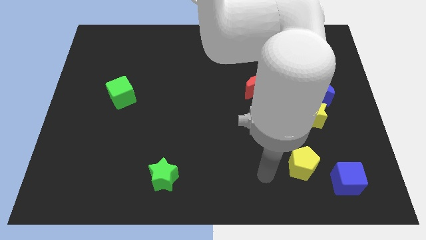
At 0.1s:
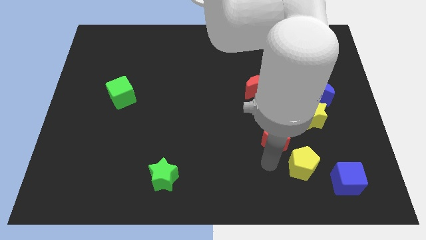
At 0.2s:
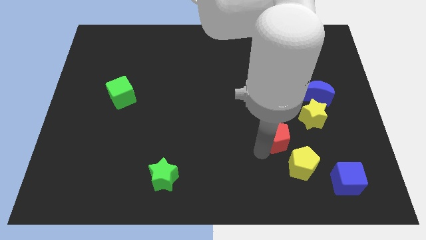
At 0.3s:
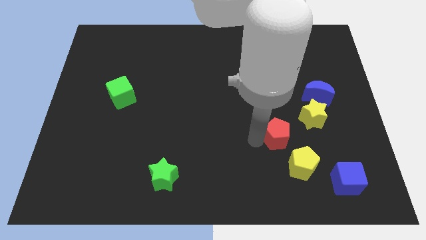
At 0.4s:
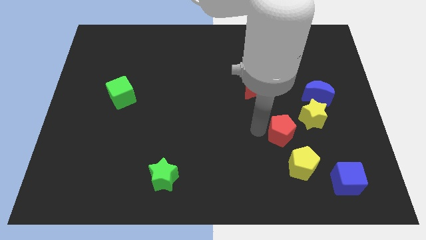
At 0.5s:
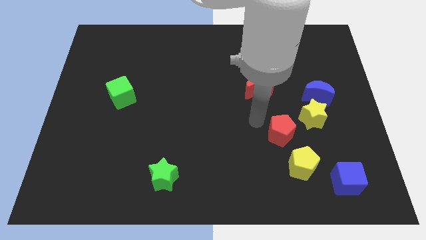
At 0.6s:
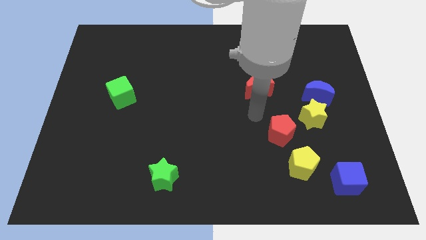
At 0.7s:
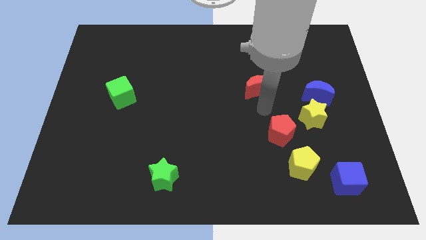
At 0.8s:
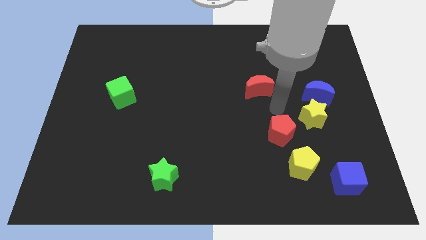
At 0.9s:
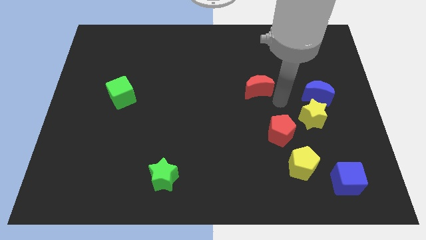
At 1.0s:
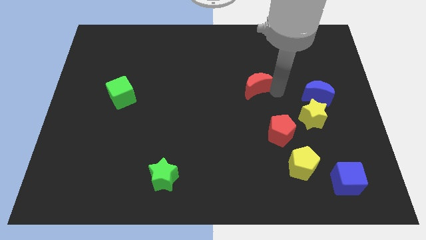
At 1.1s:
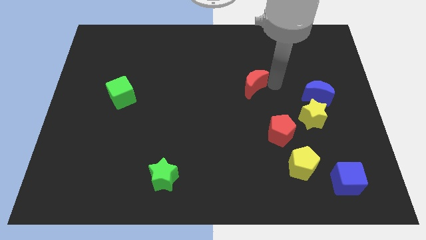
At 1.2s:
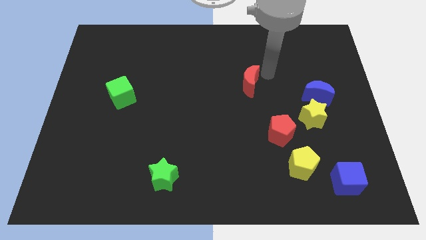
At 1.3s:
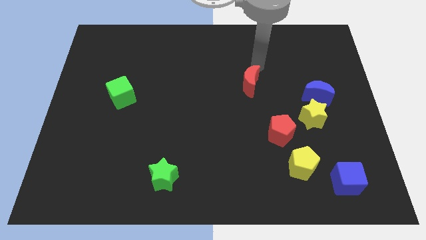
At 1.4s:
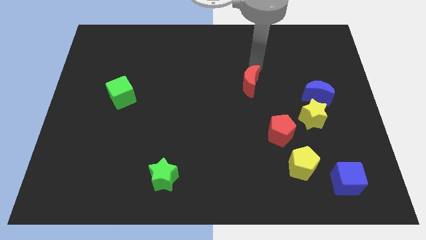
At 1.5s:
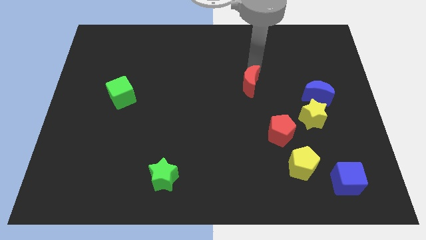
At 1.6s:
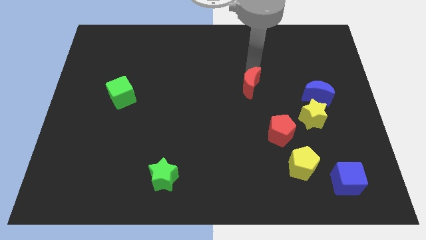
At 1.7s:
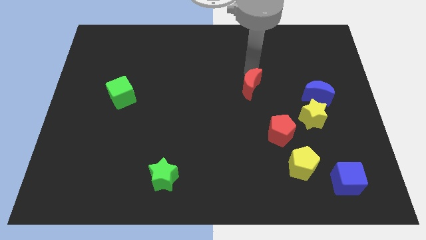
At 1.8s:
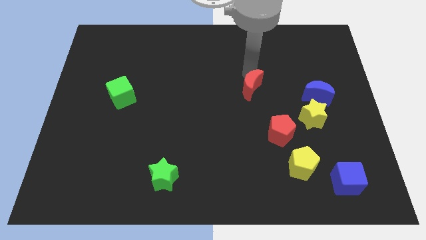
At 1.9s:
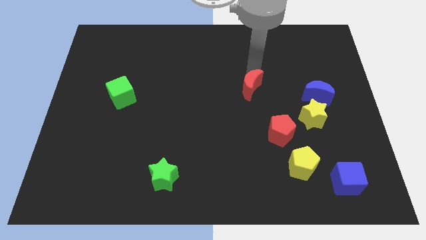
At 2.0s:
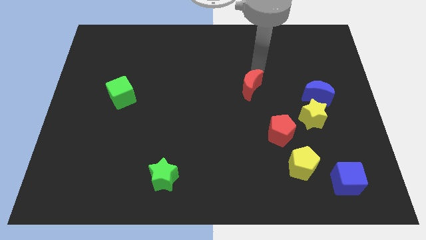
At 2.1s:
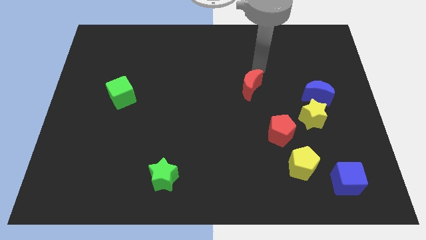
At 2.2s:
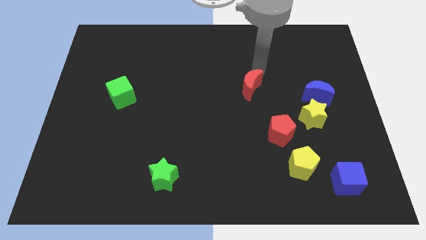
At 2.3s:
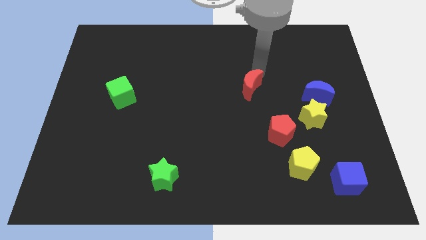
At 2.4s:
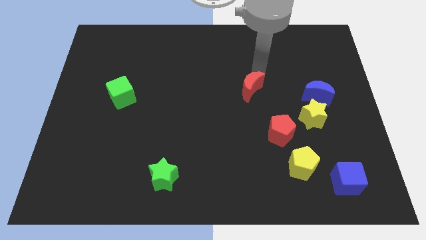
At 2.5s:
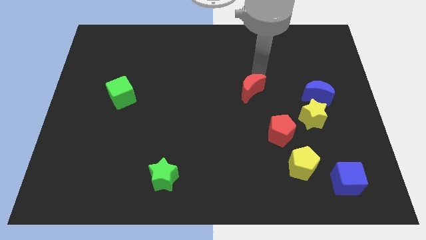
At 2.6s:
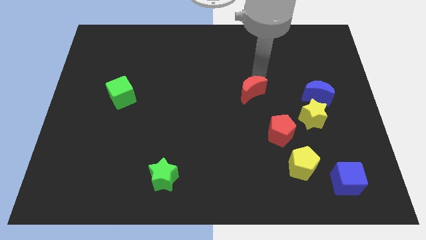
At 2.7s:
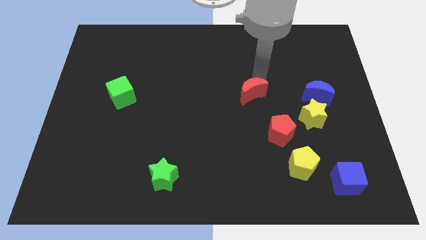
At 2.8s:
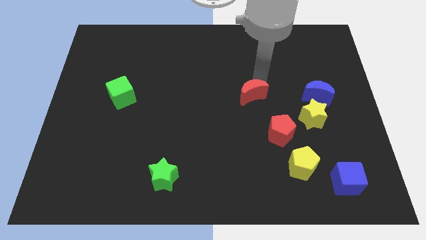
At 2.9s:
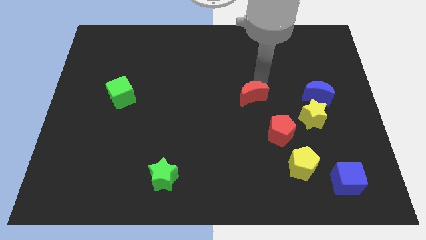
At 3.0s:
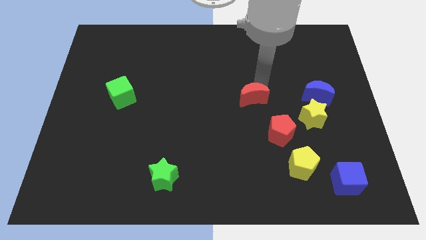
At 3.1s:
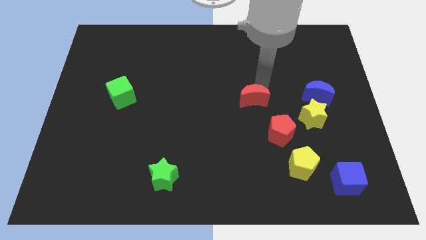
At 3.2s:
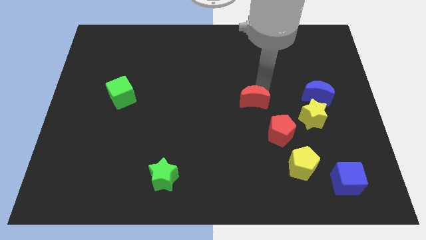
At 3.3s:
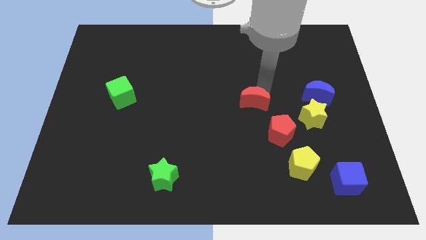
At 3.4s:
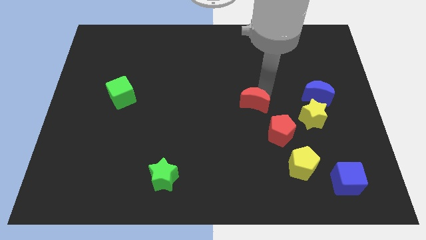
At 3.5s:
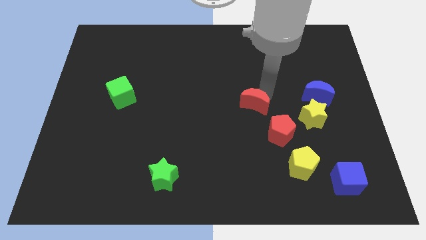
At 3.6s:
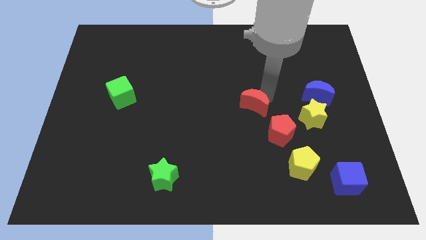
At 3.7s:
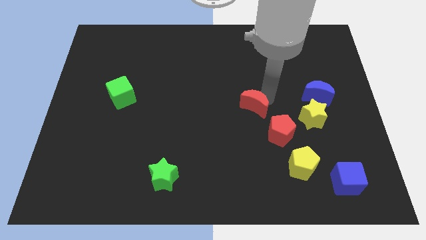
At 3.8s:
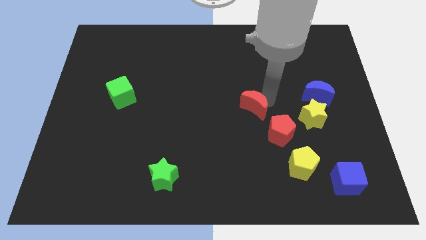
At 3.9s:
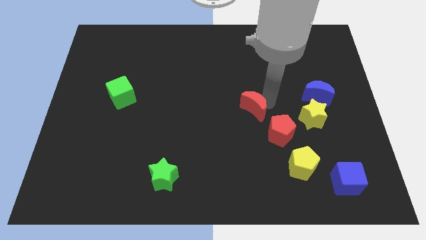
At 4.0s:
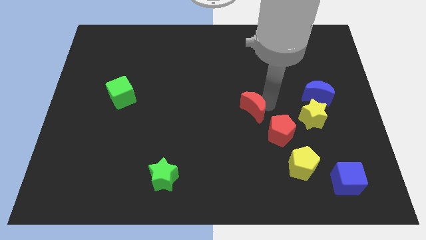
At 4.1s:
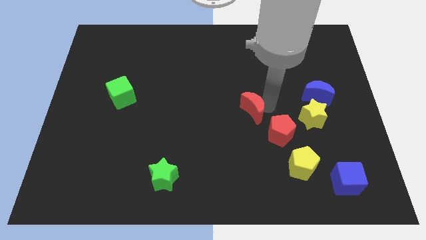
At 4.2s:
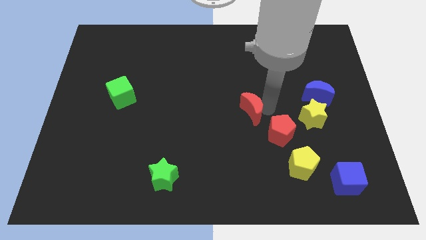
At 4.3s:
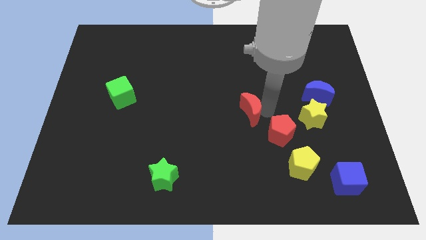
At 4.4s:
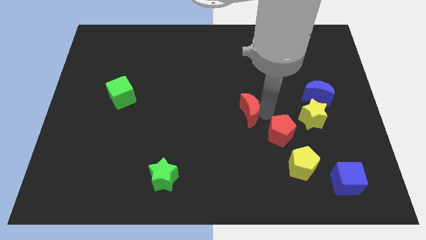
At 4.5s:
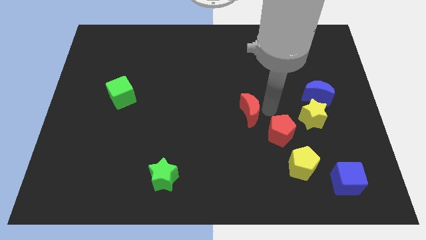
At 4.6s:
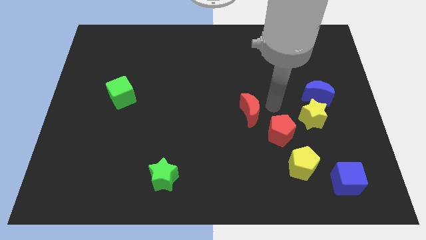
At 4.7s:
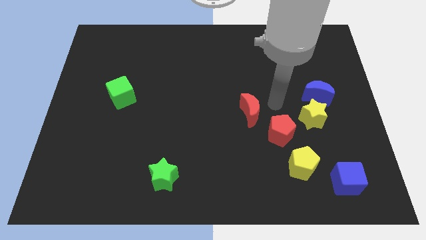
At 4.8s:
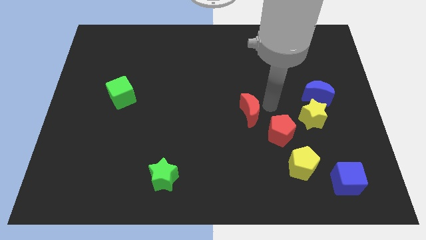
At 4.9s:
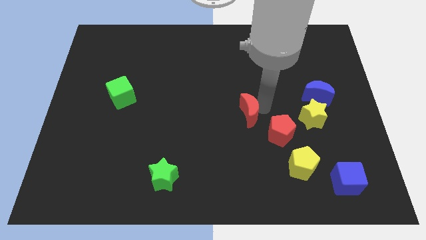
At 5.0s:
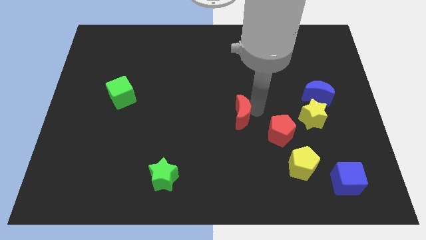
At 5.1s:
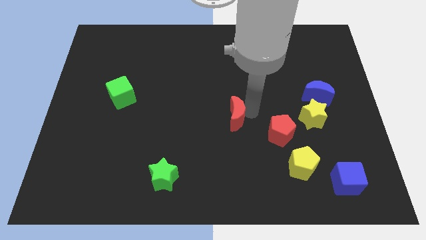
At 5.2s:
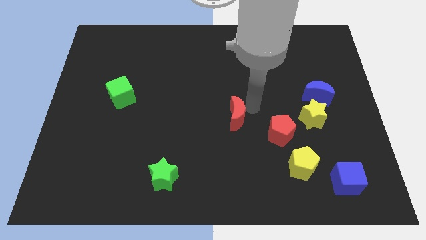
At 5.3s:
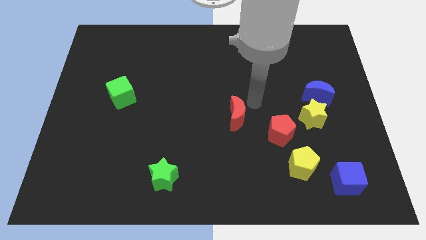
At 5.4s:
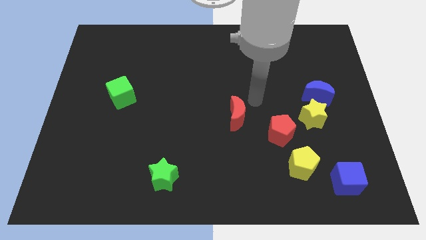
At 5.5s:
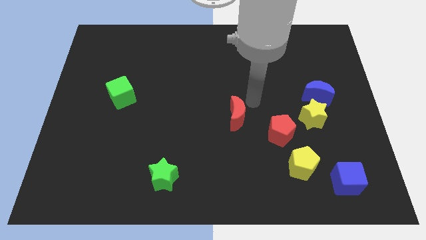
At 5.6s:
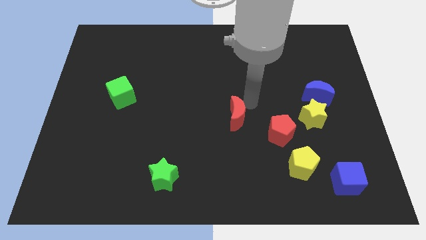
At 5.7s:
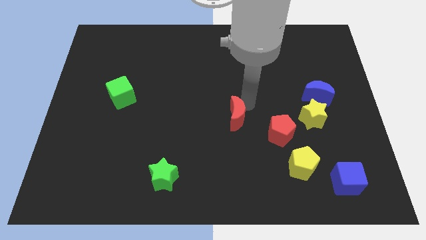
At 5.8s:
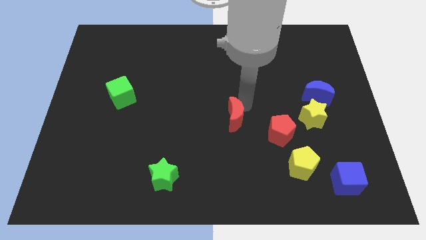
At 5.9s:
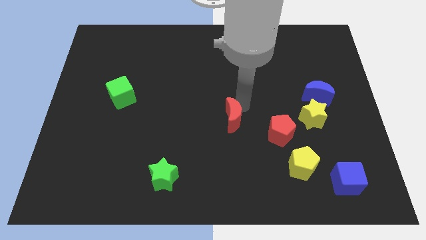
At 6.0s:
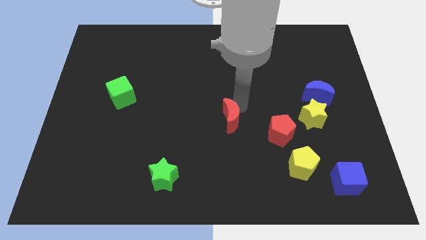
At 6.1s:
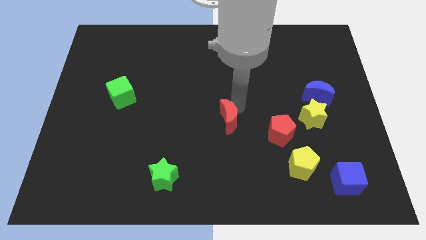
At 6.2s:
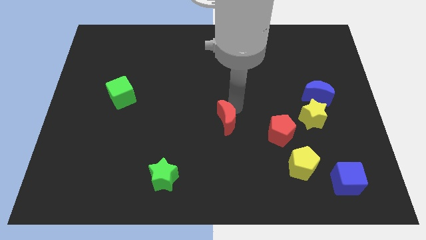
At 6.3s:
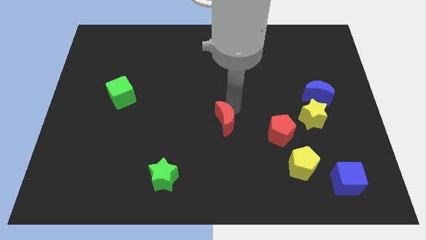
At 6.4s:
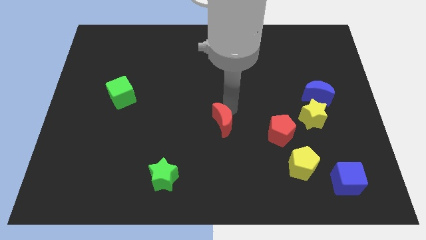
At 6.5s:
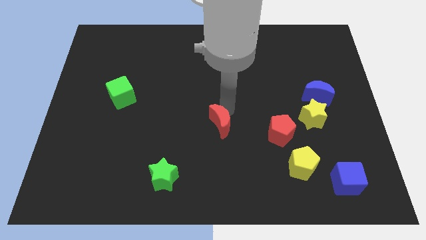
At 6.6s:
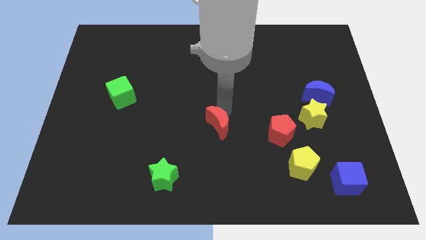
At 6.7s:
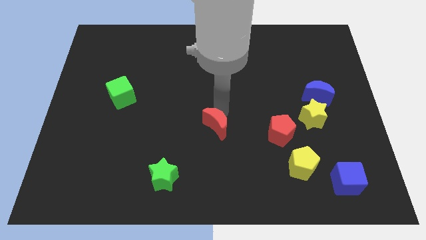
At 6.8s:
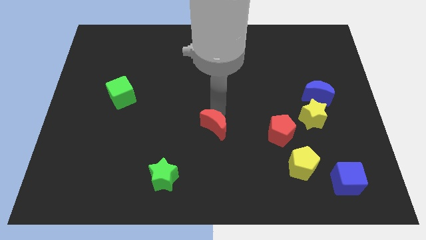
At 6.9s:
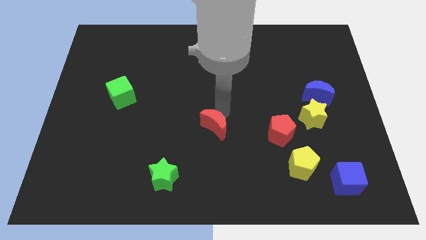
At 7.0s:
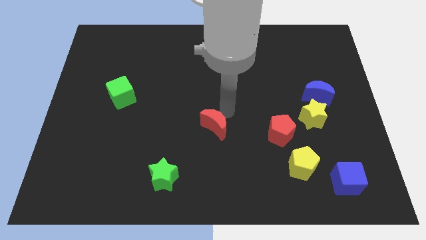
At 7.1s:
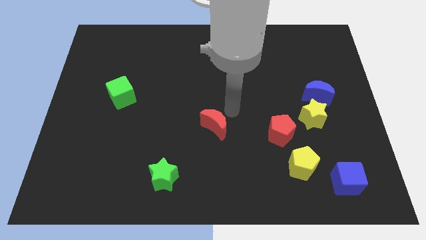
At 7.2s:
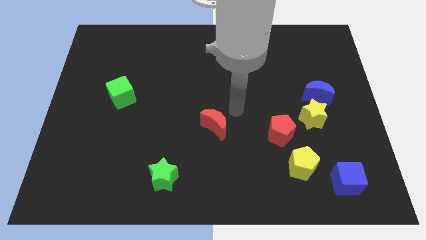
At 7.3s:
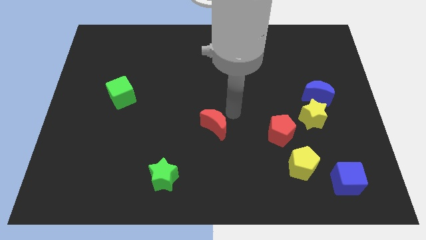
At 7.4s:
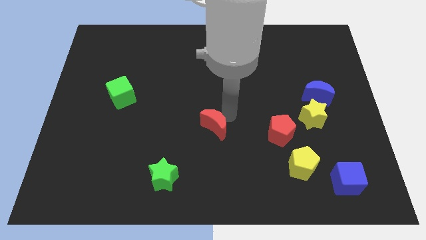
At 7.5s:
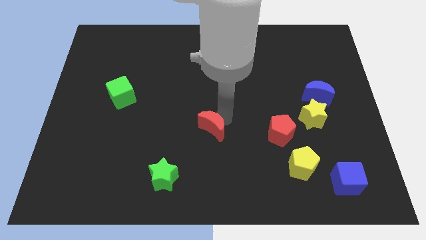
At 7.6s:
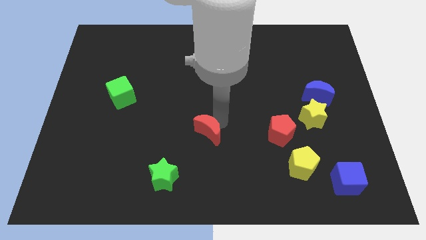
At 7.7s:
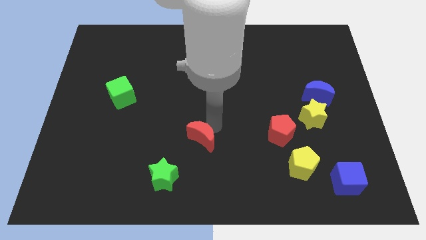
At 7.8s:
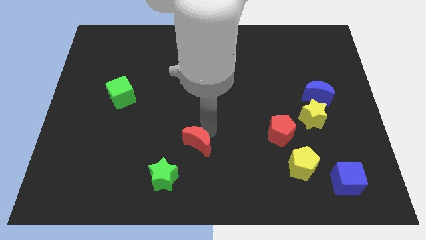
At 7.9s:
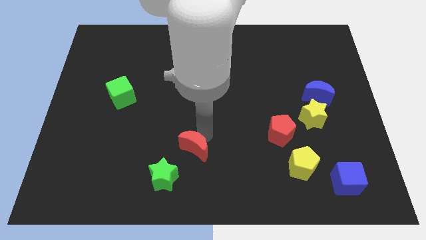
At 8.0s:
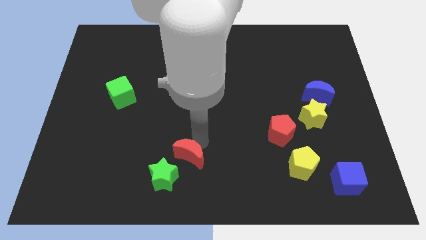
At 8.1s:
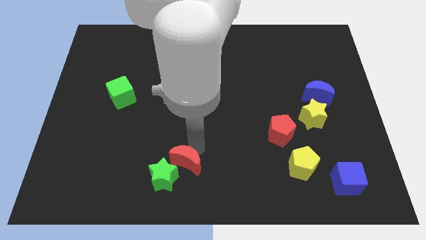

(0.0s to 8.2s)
push the red moon close to the green star
